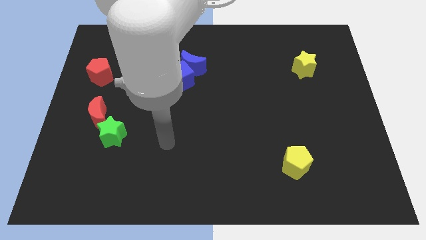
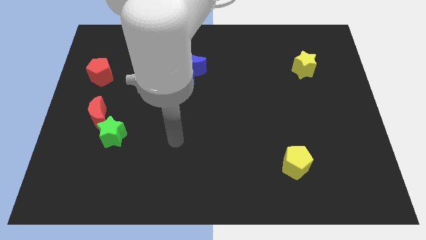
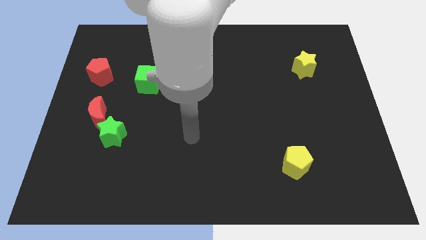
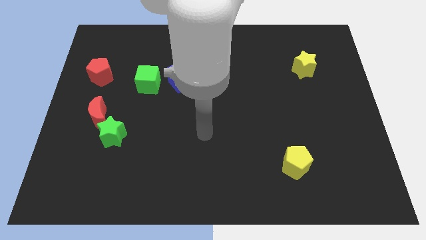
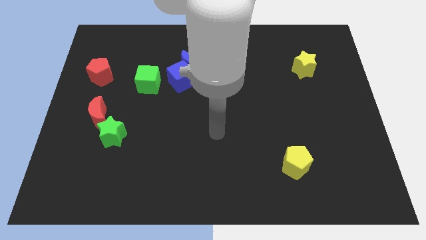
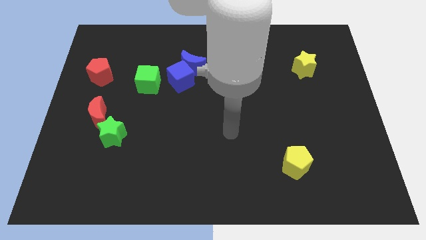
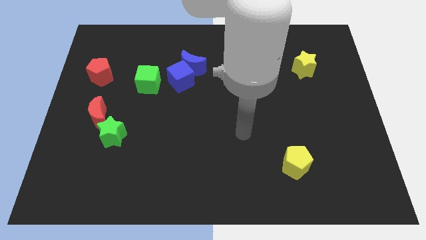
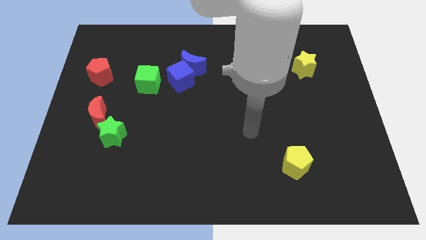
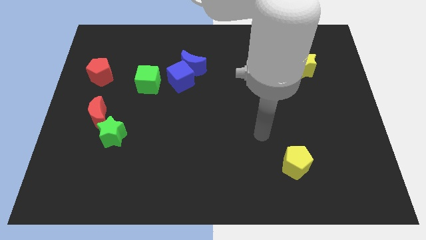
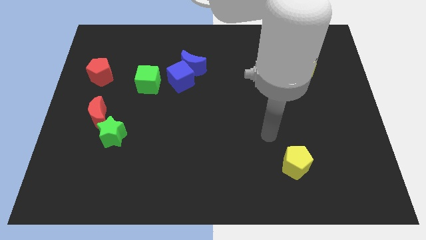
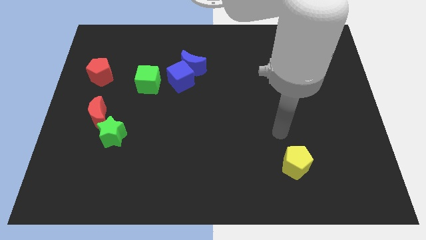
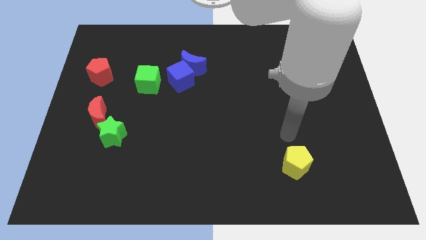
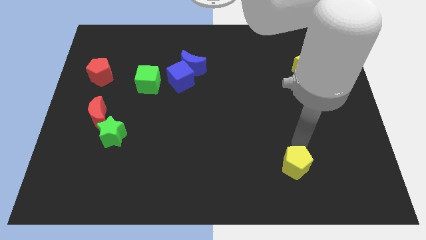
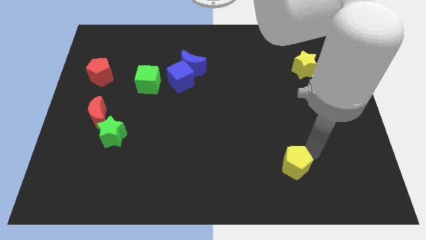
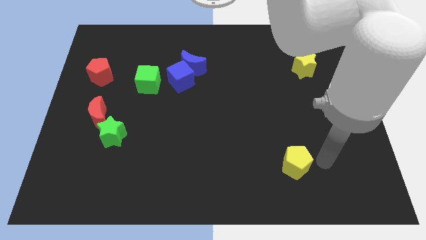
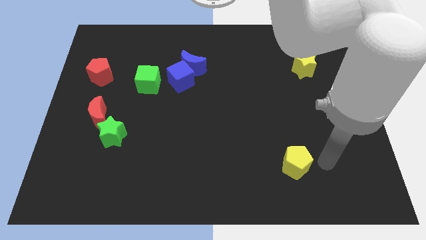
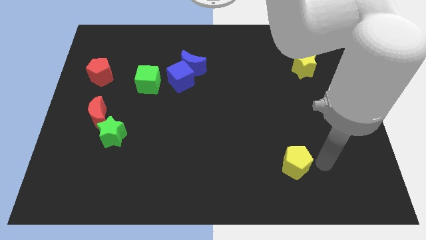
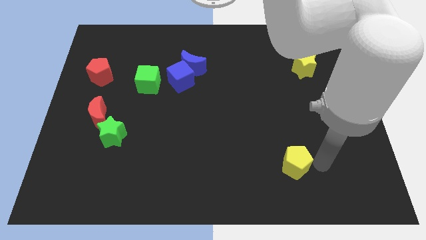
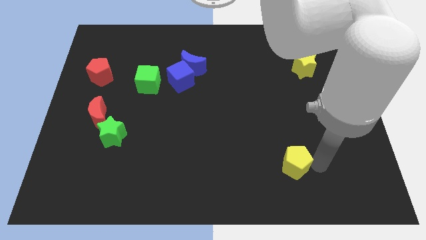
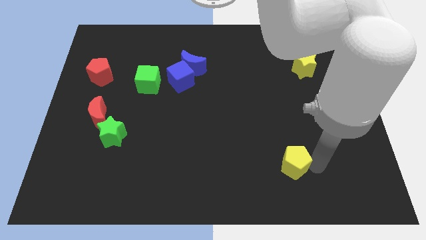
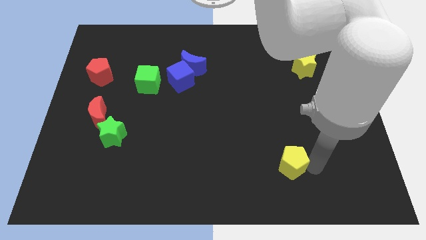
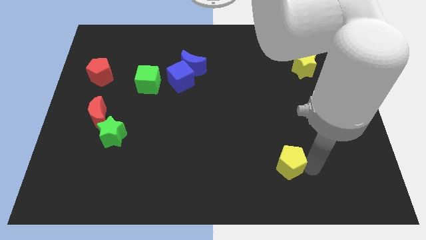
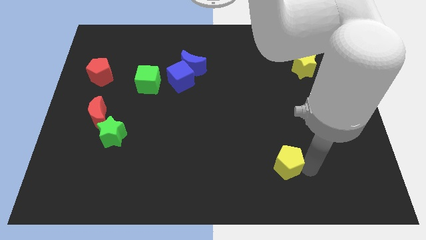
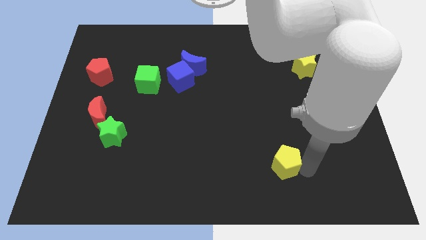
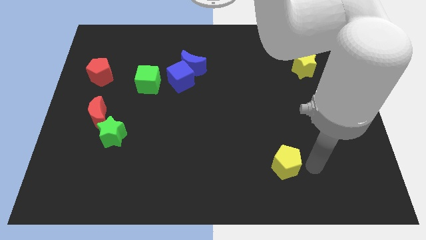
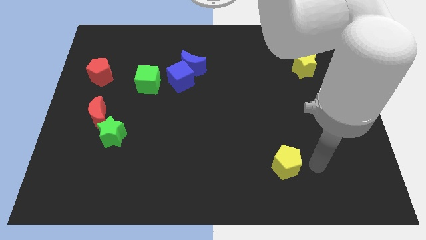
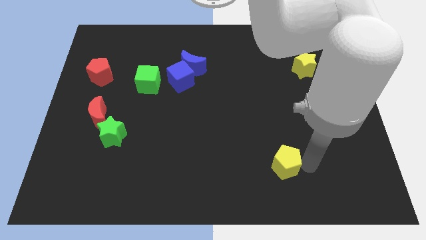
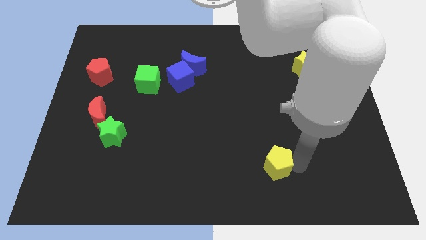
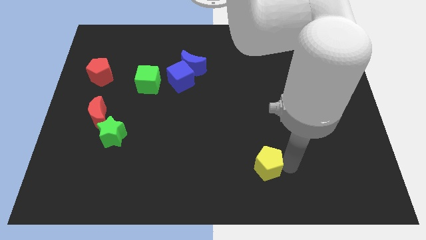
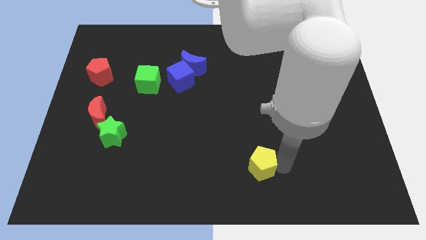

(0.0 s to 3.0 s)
slightly slide the yellow pentagon left

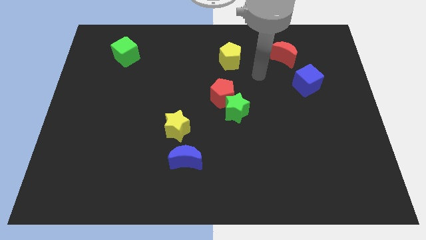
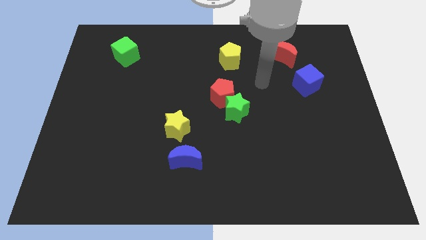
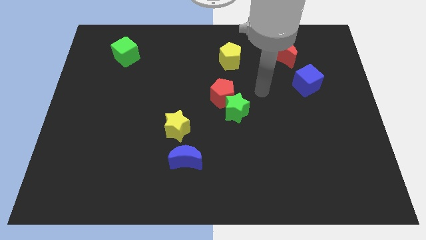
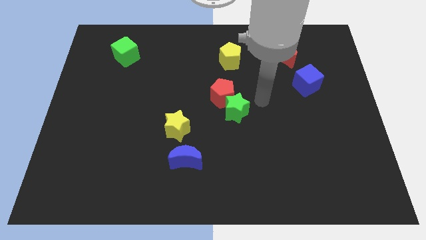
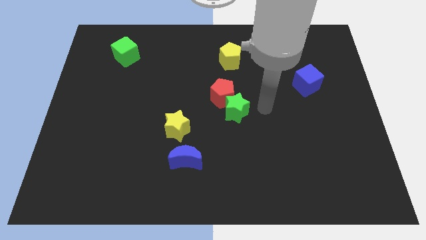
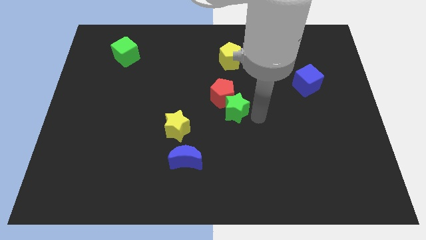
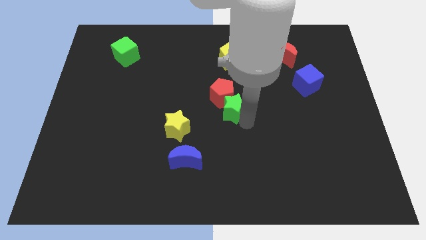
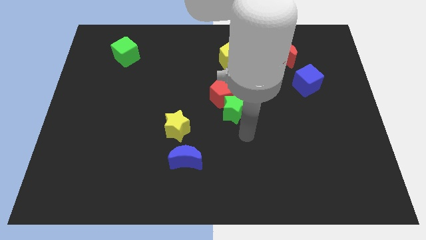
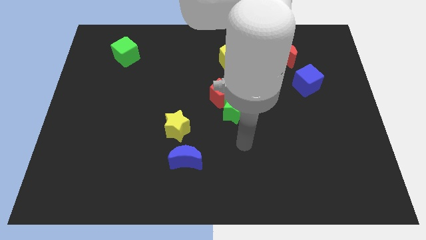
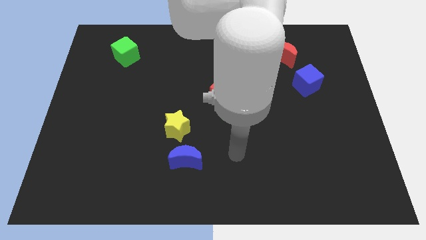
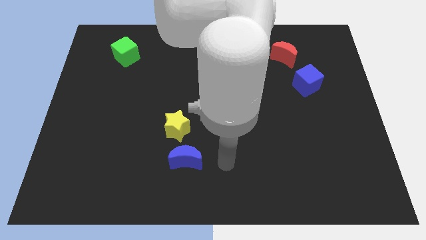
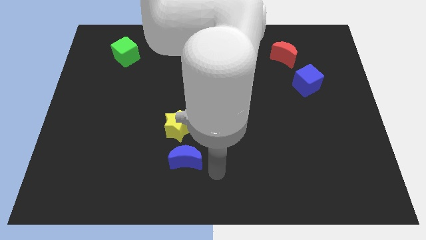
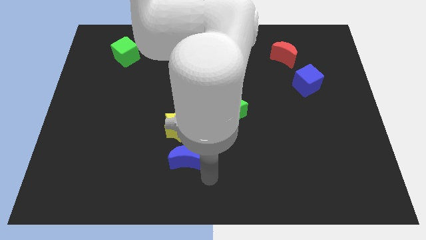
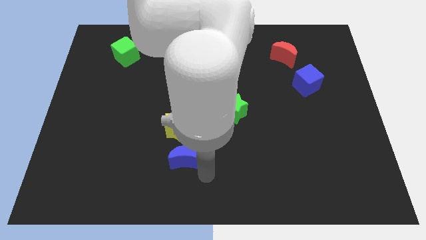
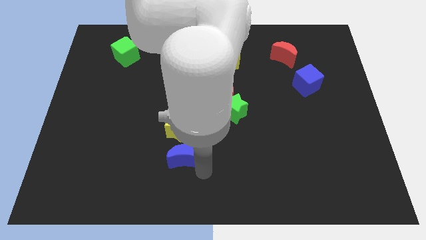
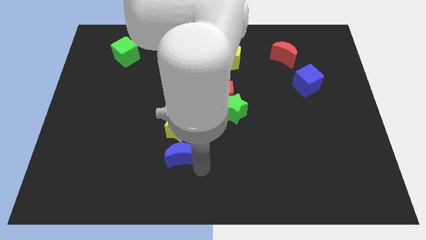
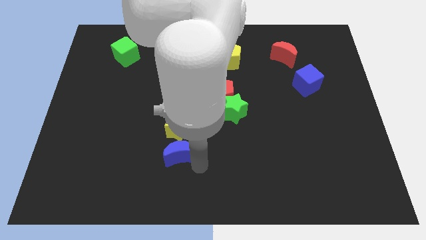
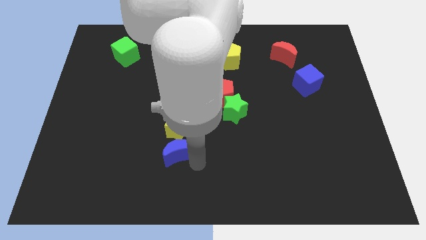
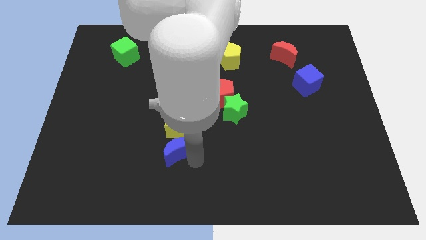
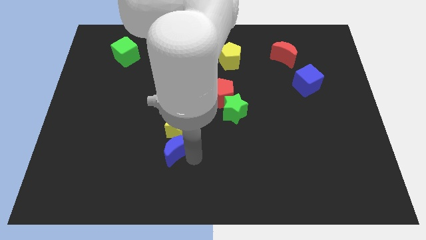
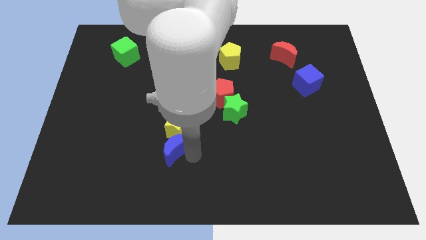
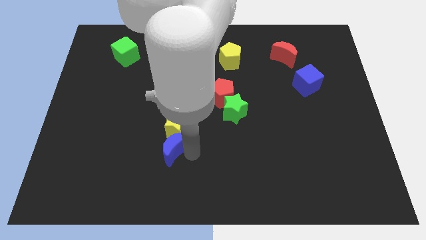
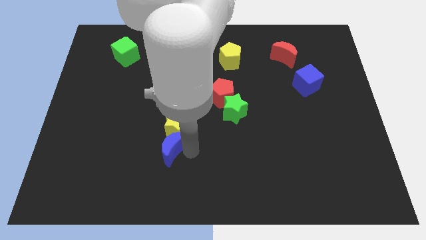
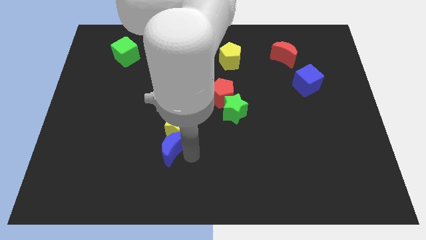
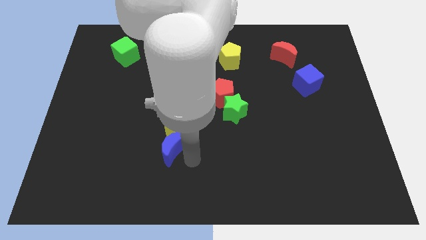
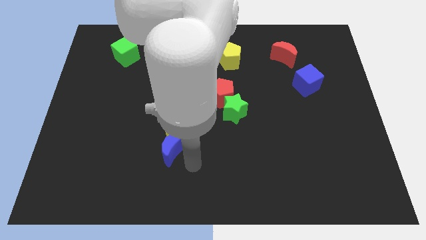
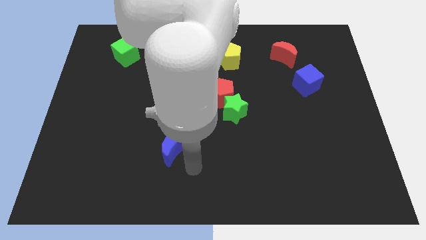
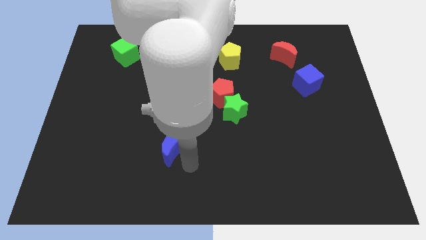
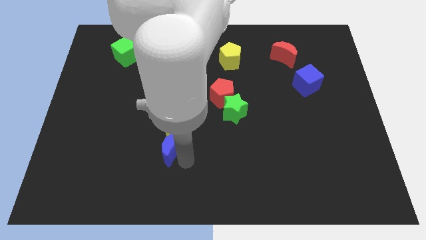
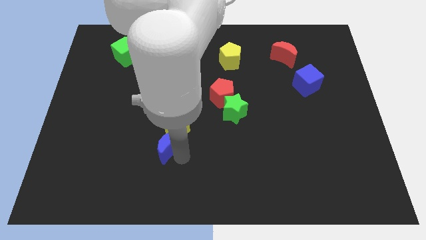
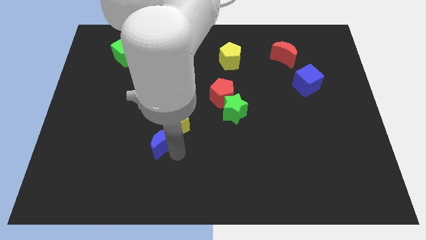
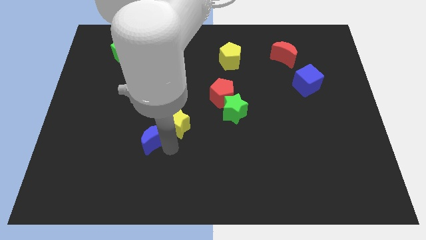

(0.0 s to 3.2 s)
slightly move the blue moon diagonally up and left

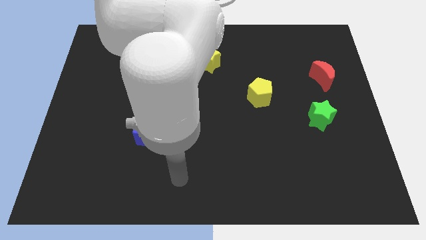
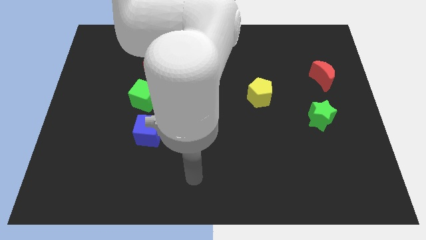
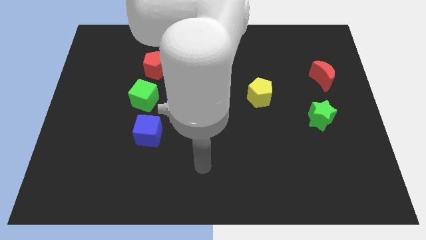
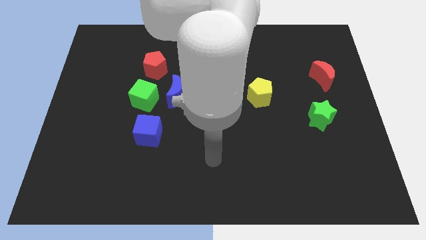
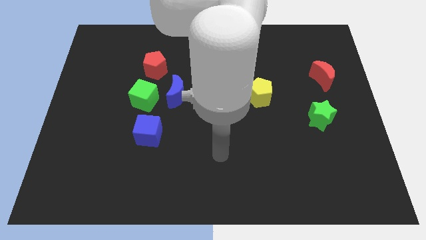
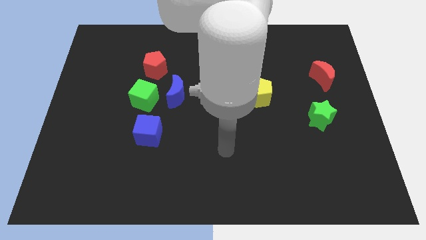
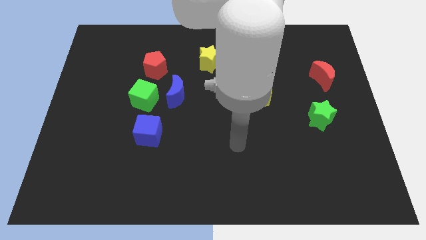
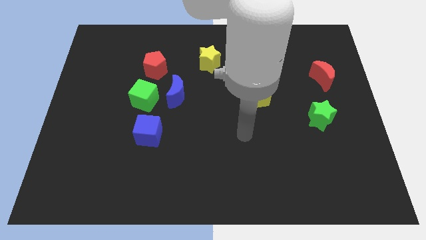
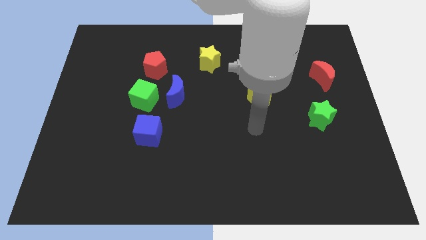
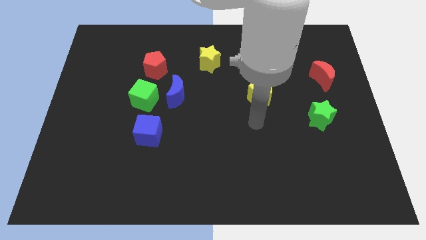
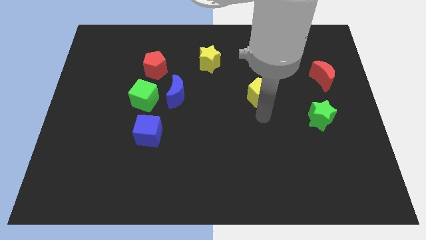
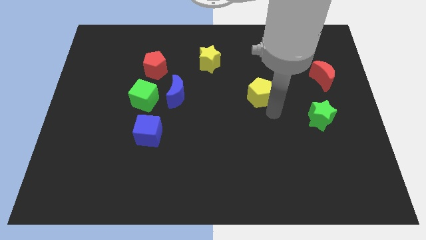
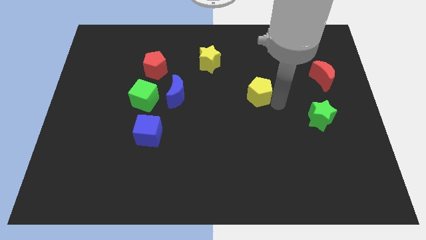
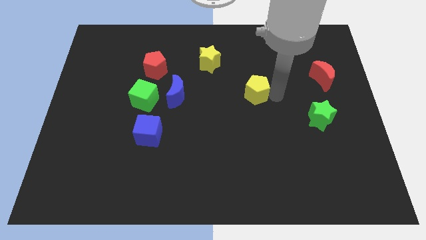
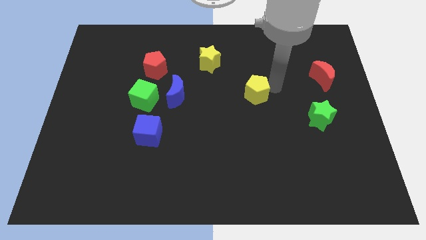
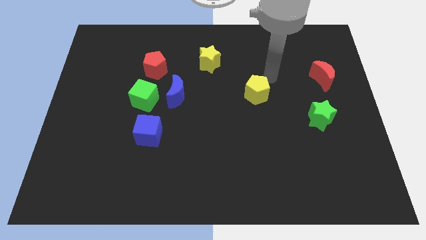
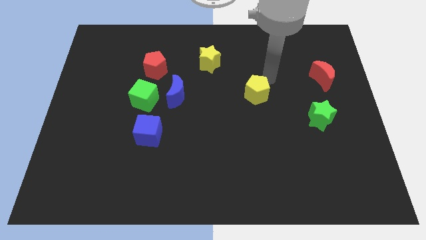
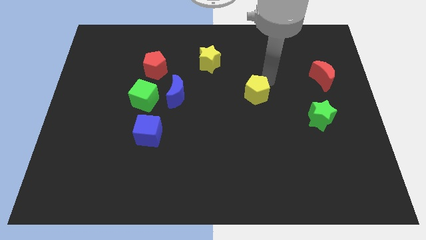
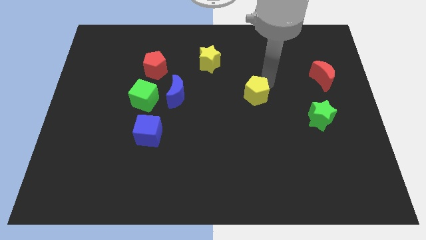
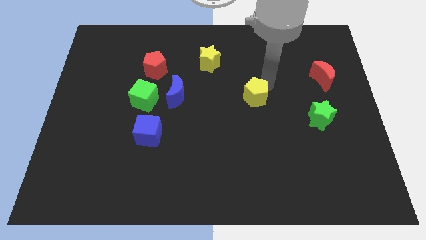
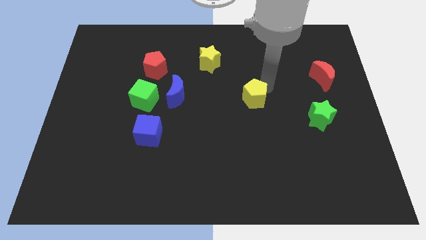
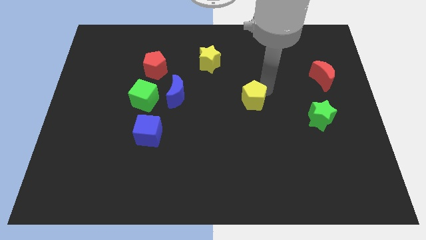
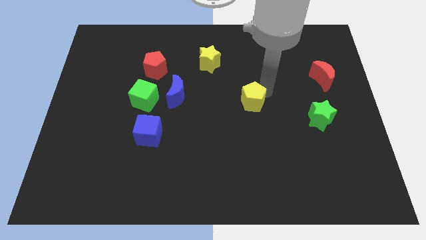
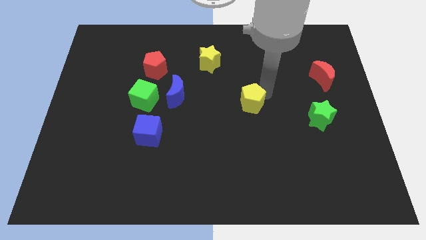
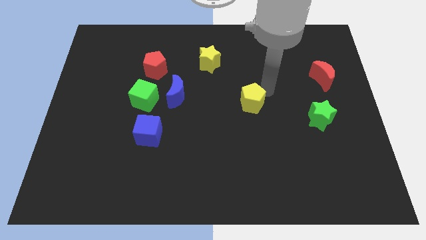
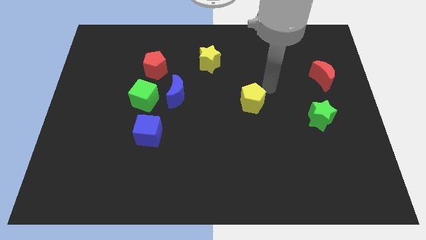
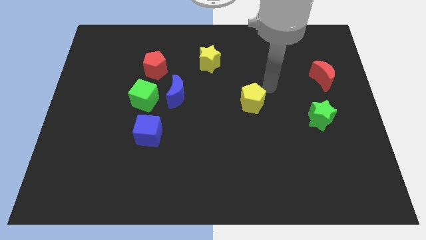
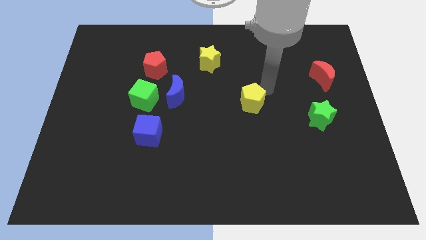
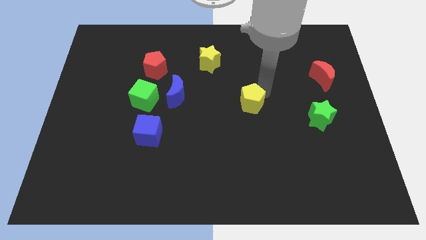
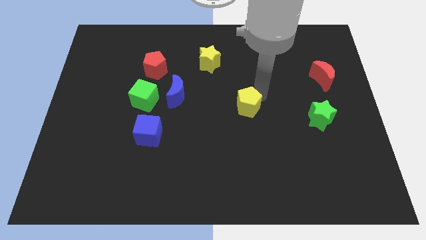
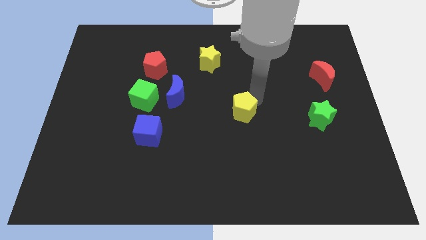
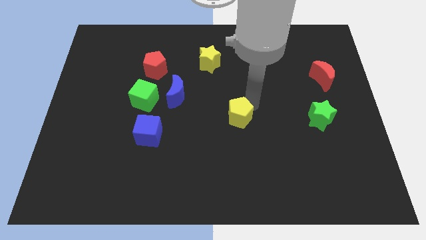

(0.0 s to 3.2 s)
move the yellow pentagon a little bit downwards and left
